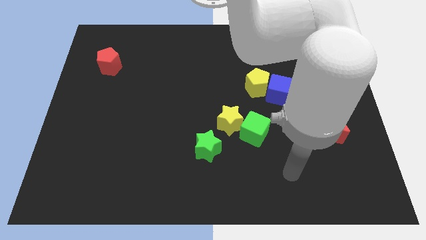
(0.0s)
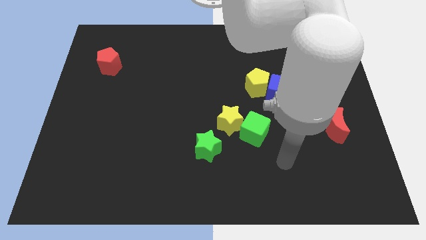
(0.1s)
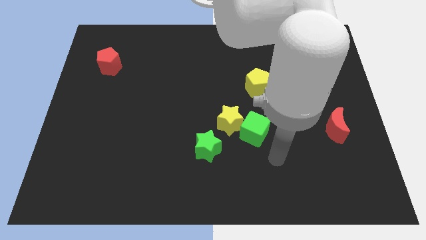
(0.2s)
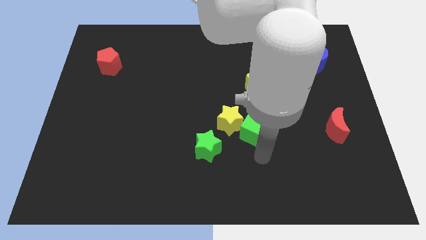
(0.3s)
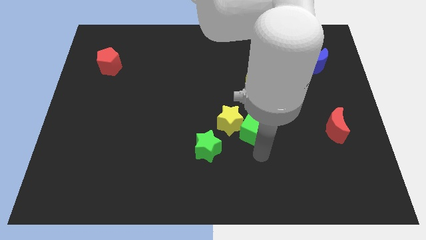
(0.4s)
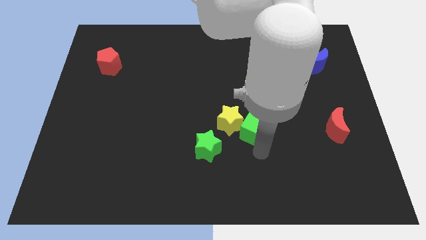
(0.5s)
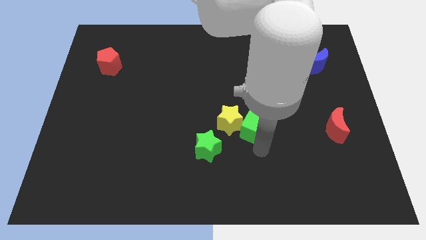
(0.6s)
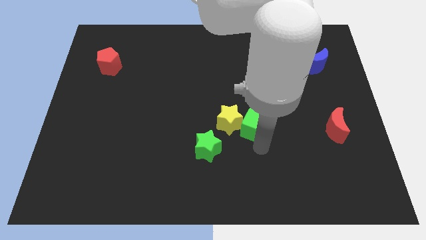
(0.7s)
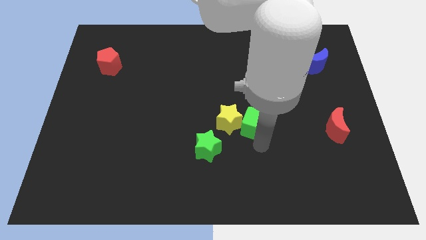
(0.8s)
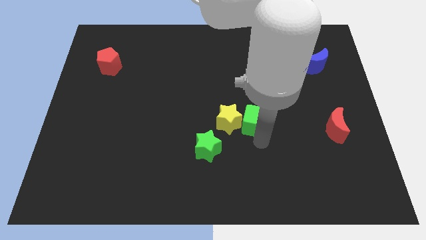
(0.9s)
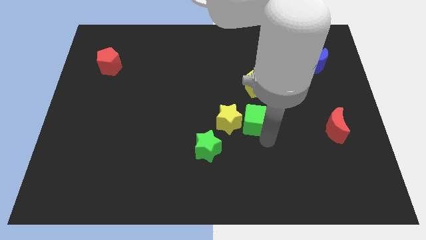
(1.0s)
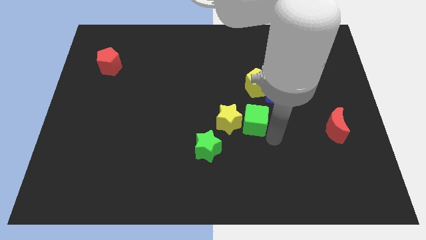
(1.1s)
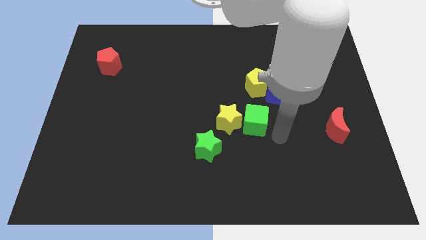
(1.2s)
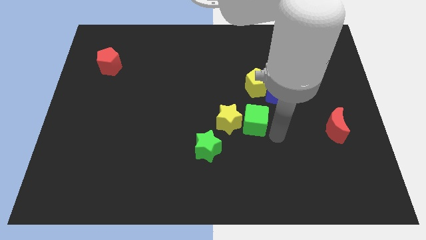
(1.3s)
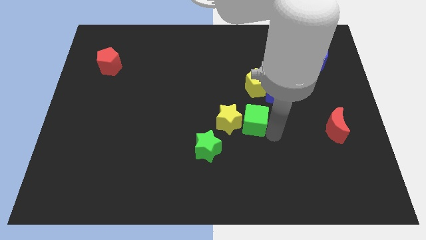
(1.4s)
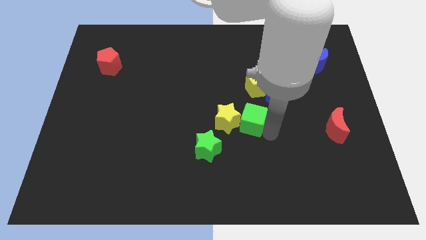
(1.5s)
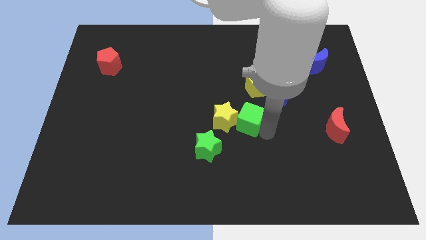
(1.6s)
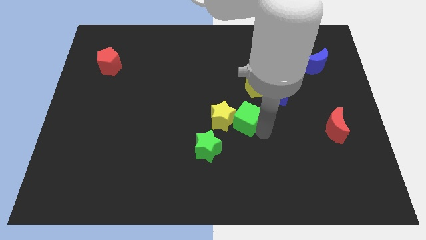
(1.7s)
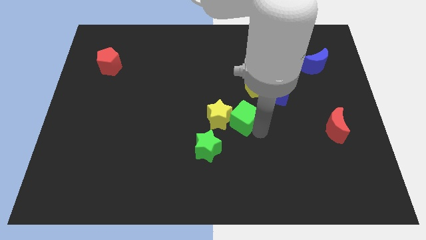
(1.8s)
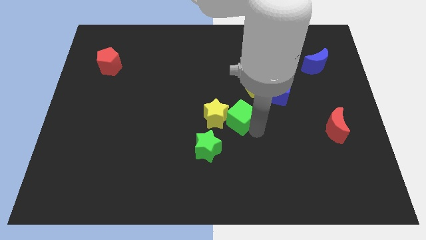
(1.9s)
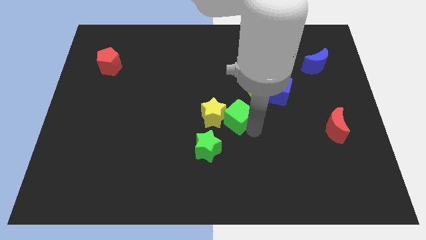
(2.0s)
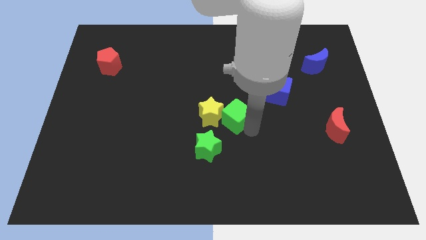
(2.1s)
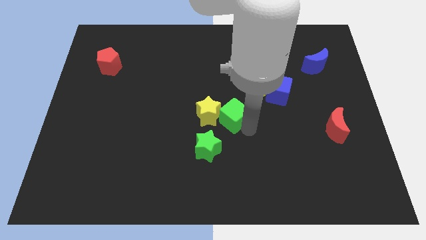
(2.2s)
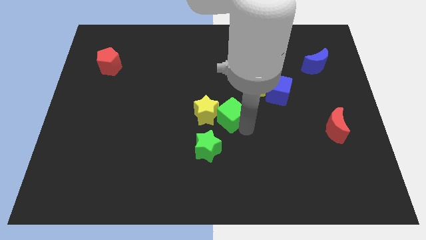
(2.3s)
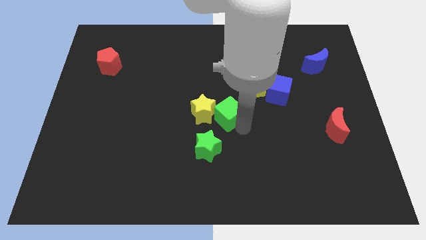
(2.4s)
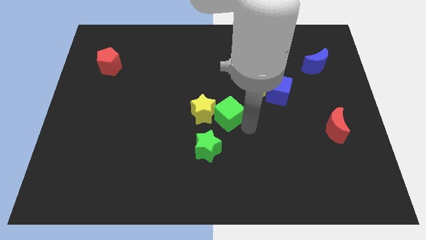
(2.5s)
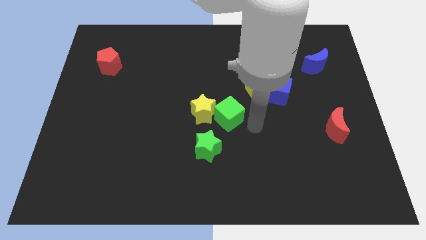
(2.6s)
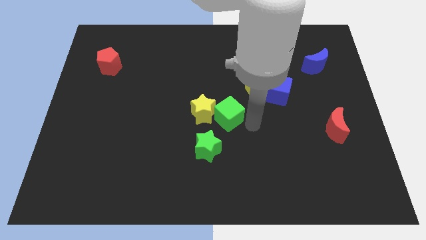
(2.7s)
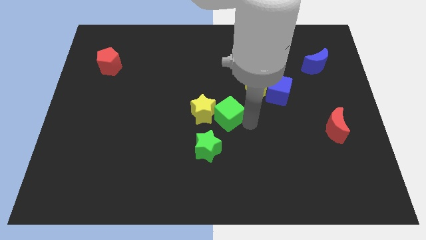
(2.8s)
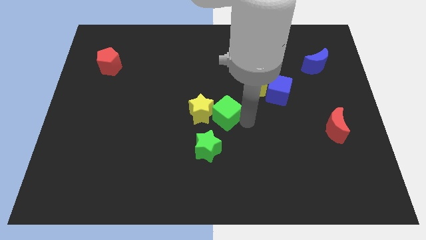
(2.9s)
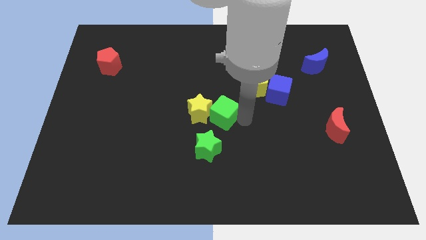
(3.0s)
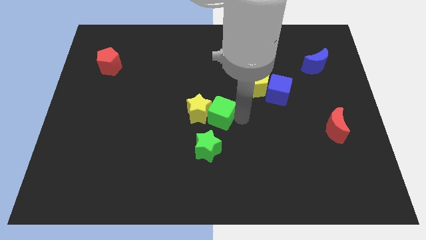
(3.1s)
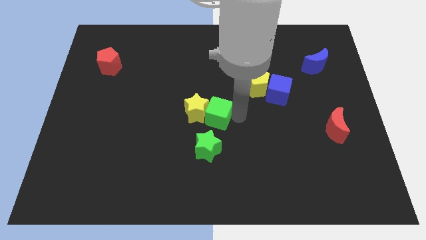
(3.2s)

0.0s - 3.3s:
push the green cube to the left a little

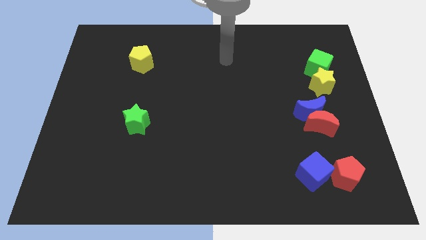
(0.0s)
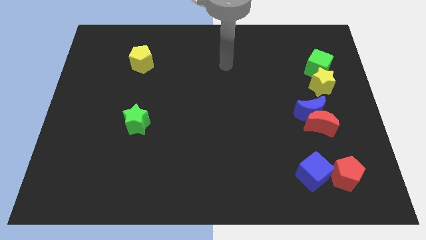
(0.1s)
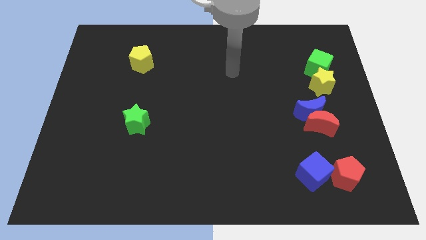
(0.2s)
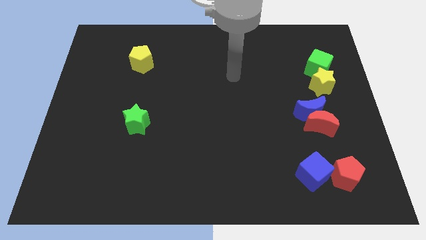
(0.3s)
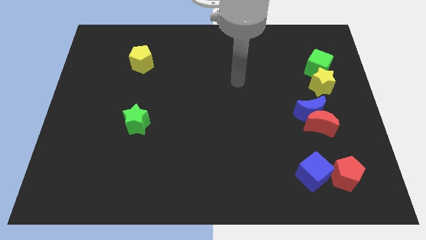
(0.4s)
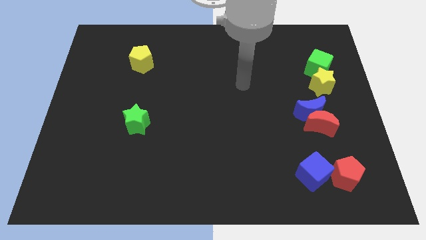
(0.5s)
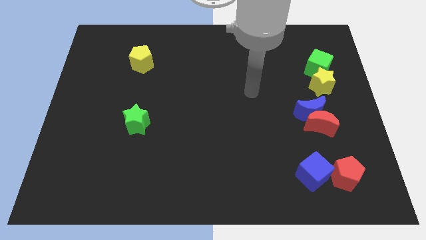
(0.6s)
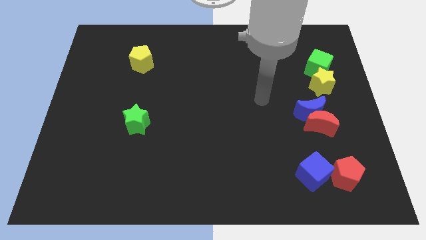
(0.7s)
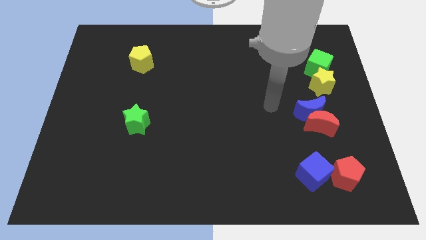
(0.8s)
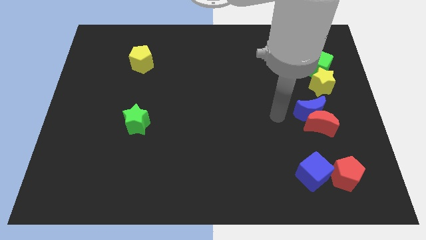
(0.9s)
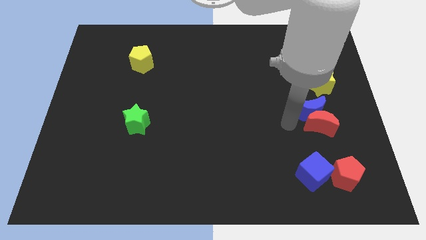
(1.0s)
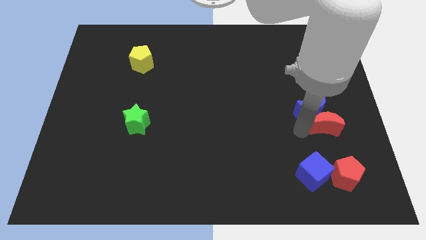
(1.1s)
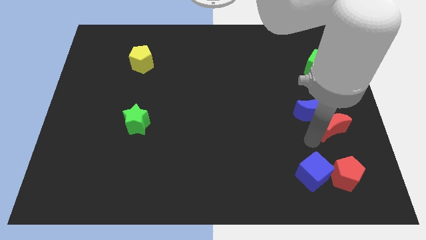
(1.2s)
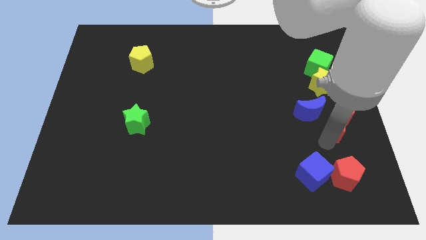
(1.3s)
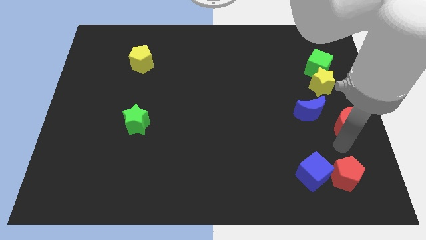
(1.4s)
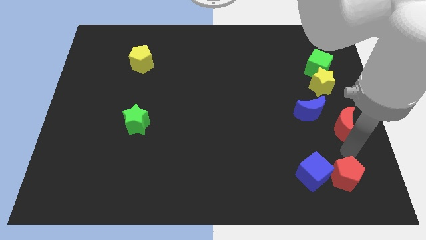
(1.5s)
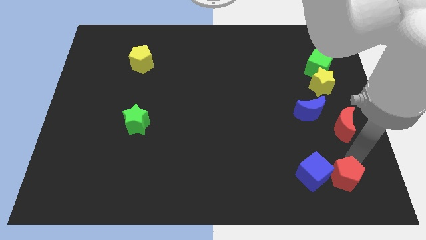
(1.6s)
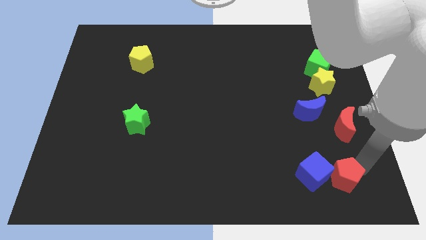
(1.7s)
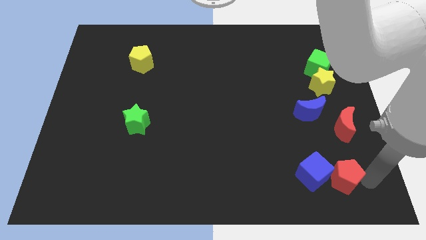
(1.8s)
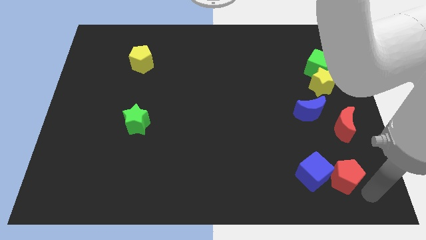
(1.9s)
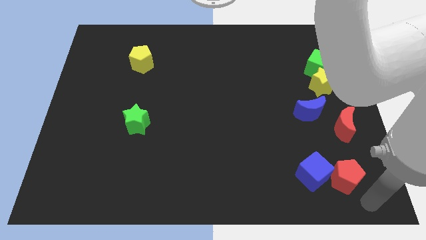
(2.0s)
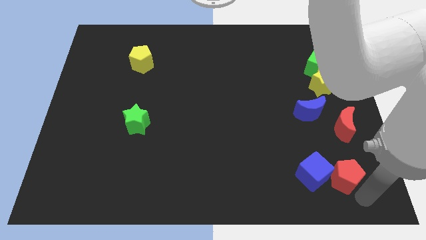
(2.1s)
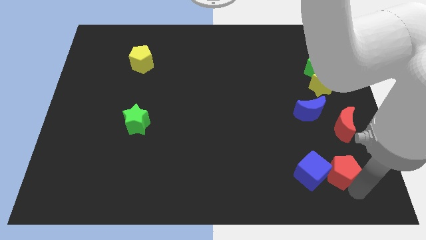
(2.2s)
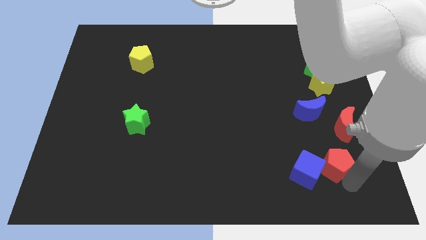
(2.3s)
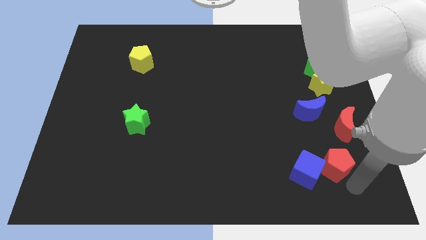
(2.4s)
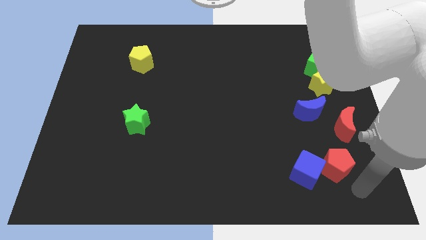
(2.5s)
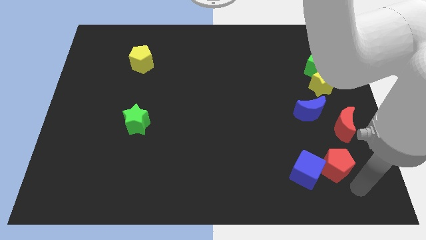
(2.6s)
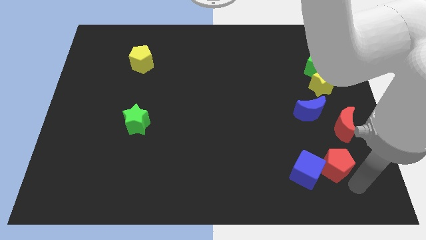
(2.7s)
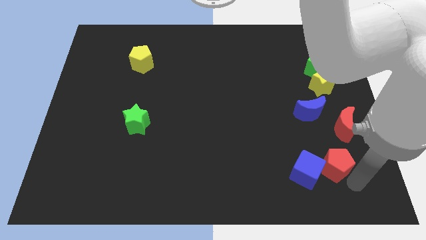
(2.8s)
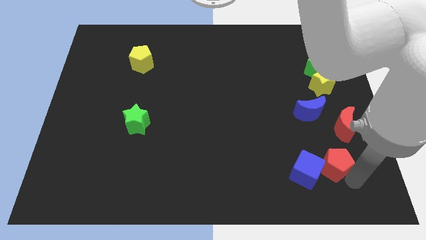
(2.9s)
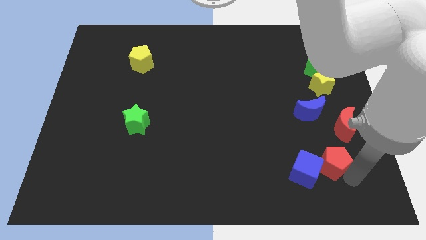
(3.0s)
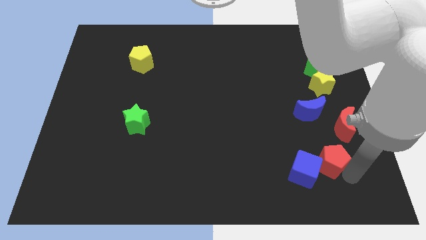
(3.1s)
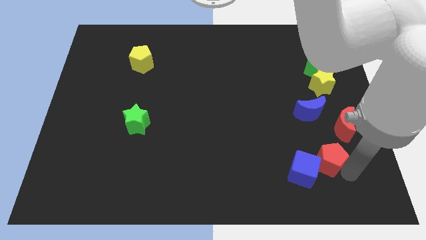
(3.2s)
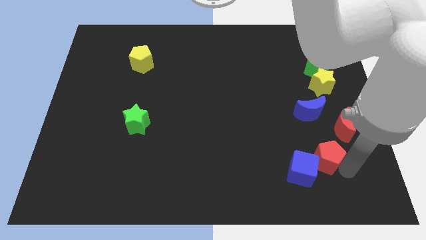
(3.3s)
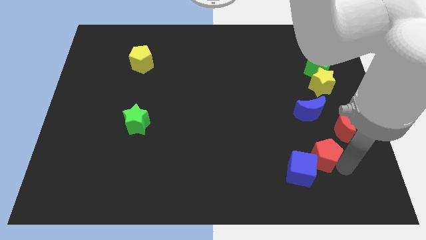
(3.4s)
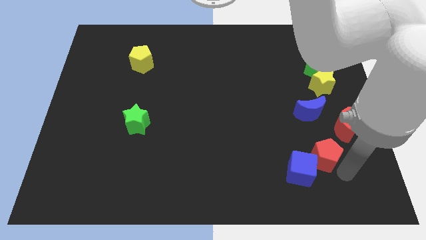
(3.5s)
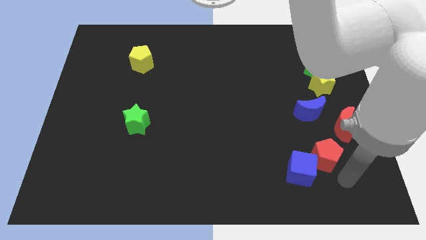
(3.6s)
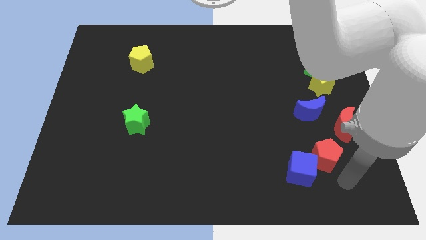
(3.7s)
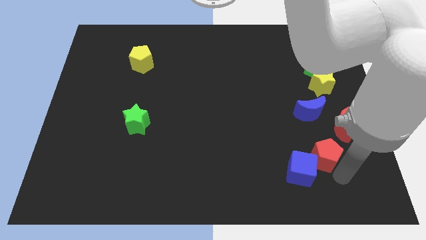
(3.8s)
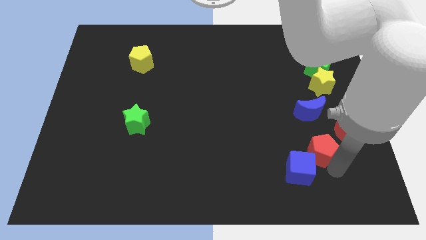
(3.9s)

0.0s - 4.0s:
push the red pentagon a little bit up and to the left diagonally

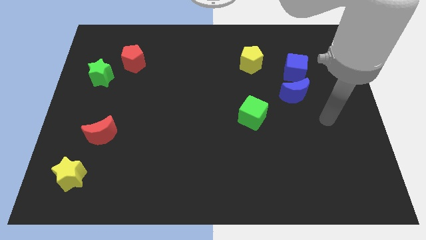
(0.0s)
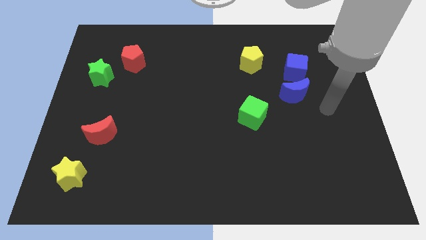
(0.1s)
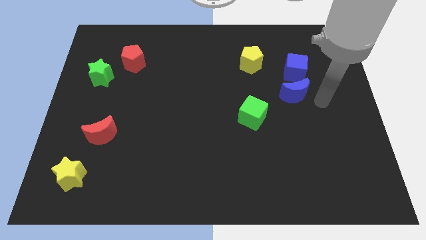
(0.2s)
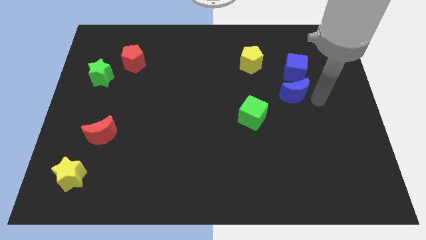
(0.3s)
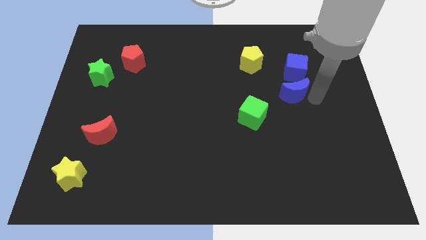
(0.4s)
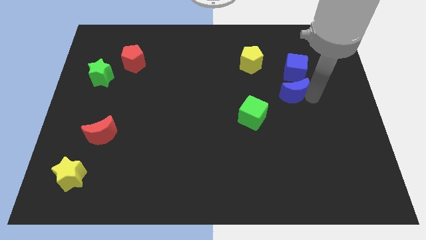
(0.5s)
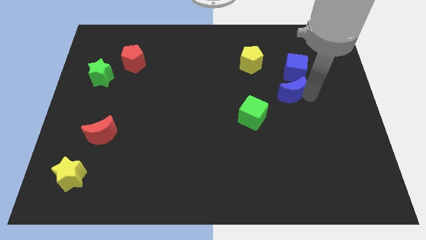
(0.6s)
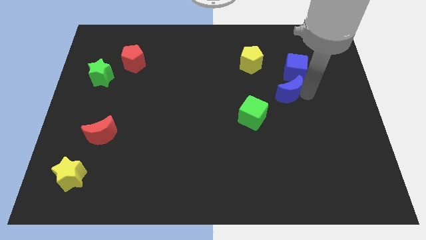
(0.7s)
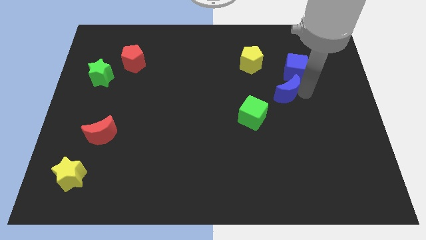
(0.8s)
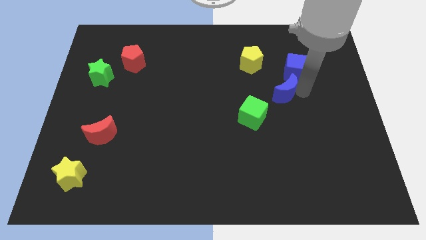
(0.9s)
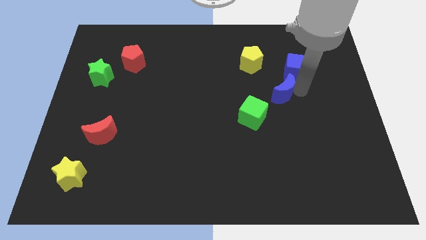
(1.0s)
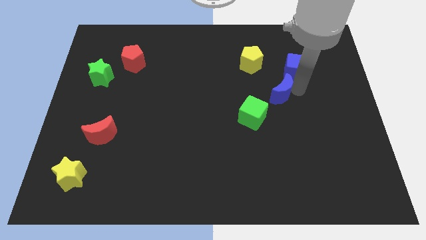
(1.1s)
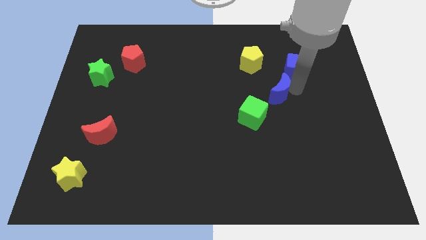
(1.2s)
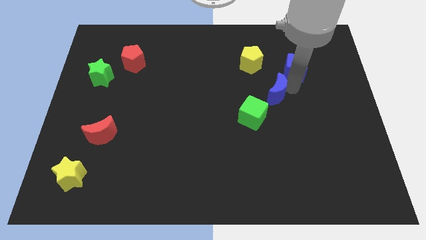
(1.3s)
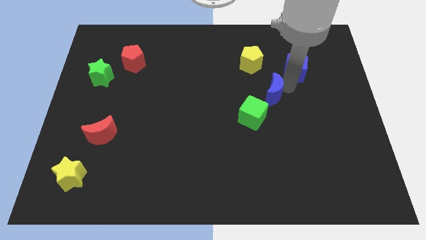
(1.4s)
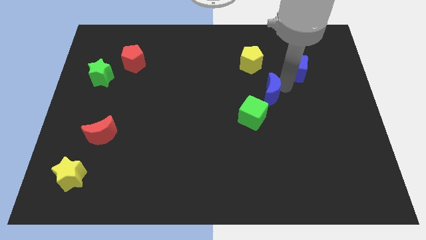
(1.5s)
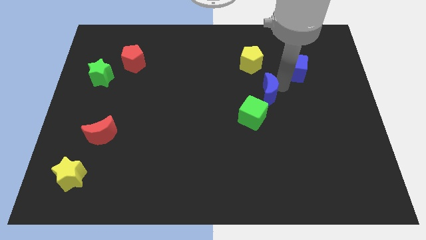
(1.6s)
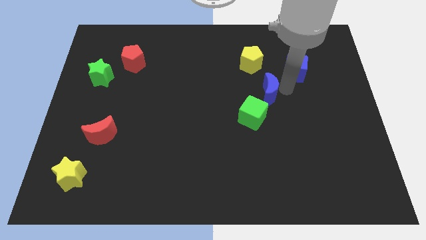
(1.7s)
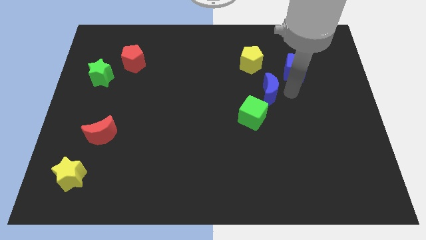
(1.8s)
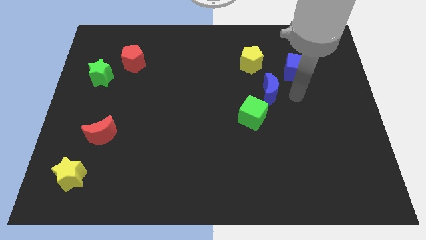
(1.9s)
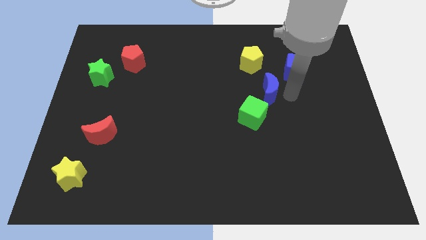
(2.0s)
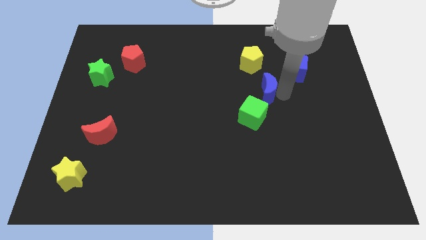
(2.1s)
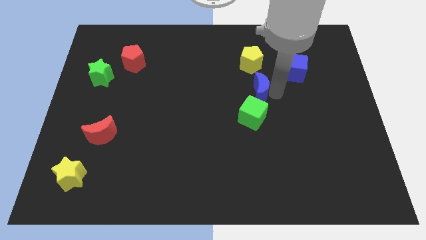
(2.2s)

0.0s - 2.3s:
move the blue moon to the left slightly
